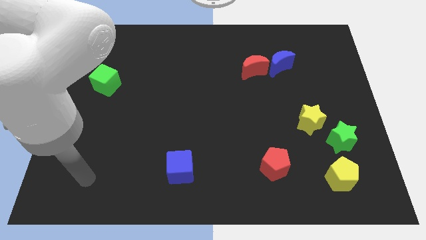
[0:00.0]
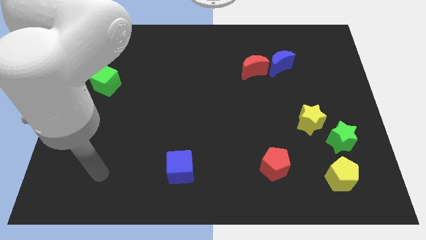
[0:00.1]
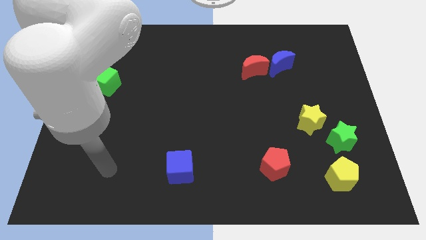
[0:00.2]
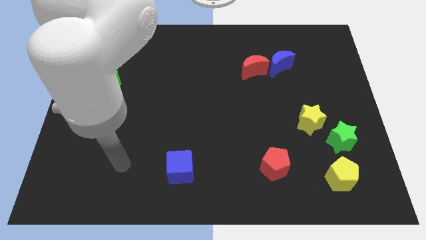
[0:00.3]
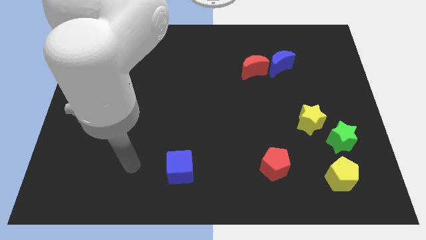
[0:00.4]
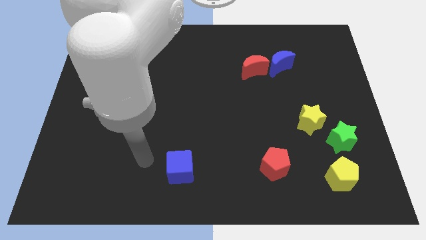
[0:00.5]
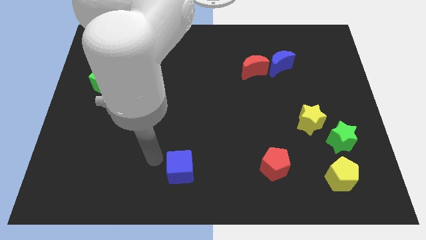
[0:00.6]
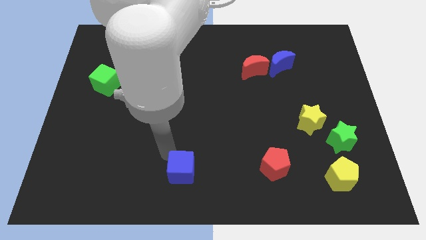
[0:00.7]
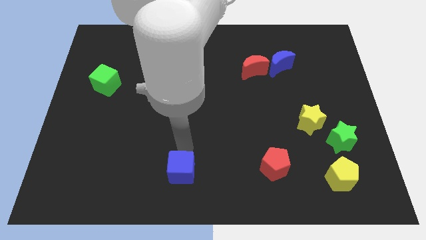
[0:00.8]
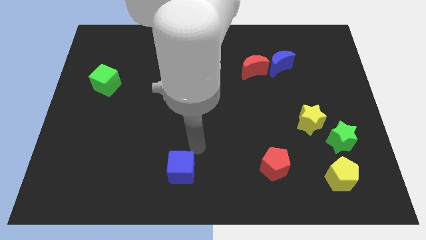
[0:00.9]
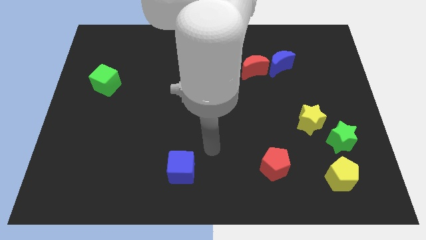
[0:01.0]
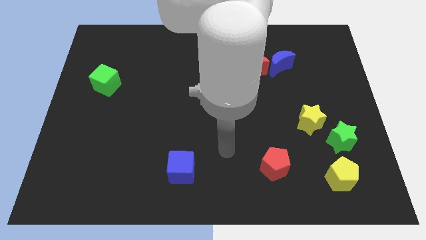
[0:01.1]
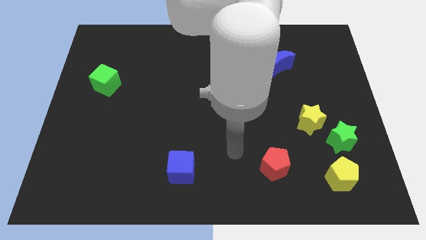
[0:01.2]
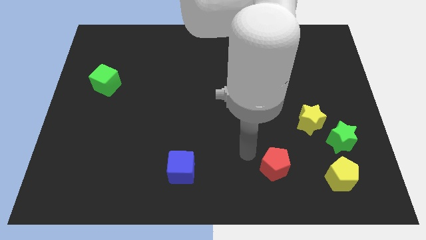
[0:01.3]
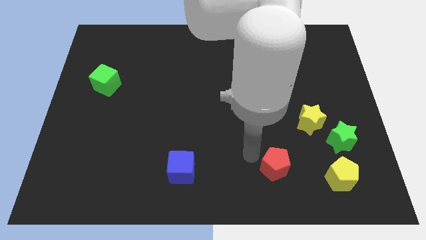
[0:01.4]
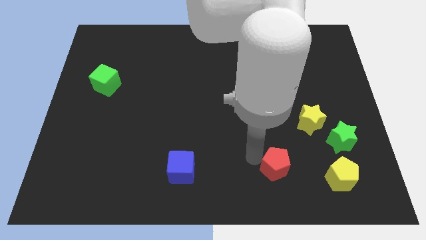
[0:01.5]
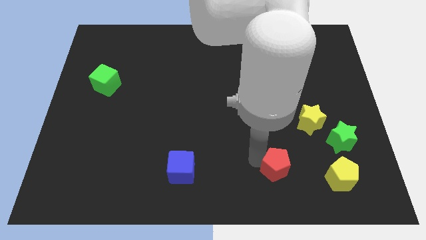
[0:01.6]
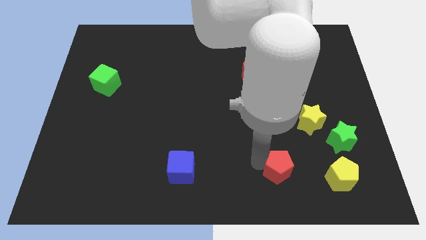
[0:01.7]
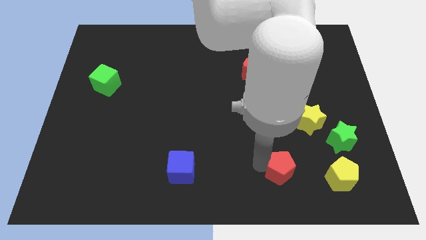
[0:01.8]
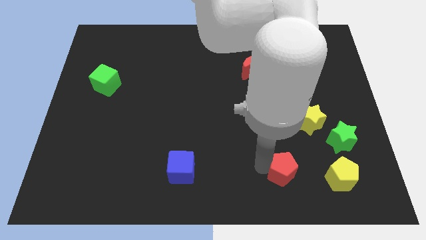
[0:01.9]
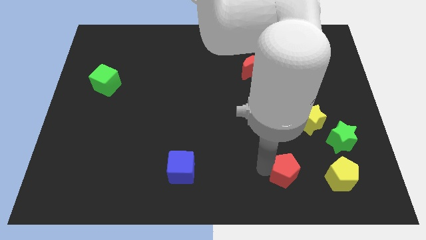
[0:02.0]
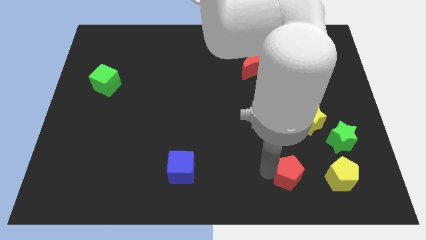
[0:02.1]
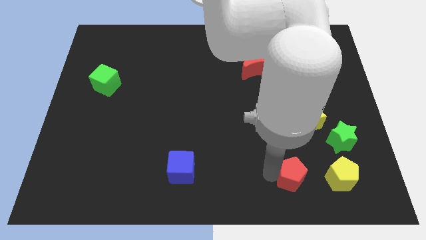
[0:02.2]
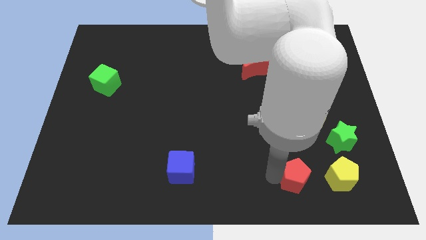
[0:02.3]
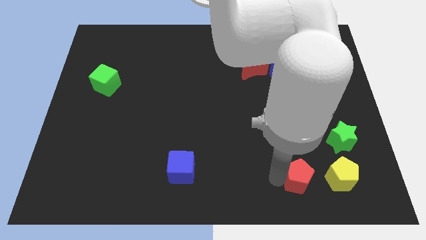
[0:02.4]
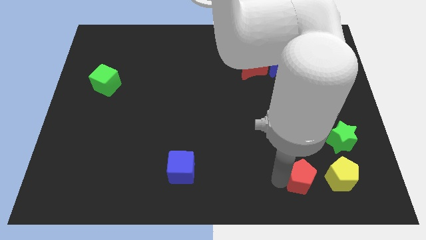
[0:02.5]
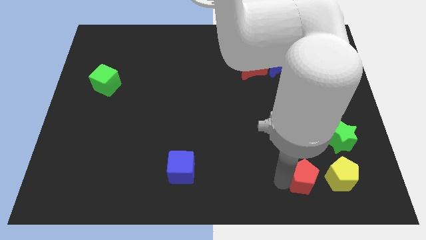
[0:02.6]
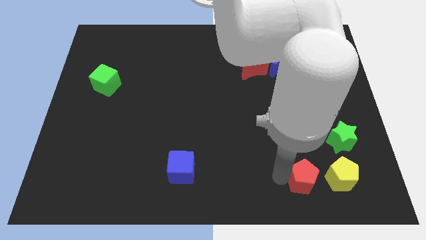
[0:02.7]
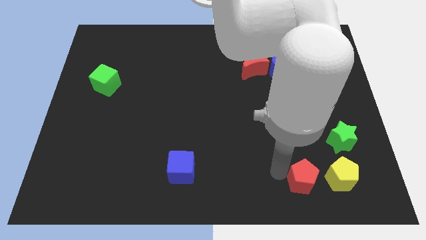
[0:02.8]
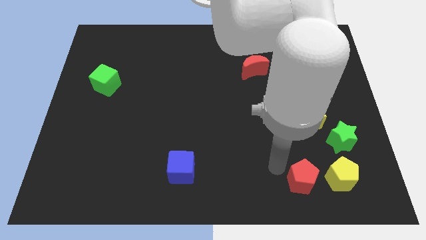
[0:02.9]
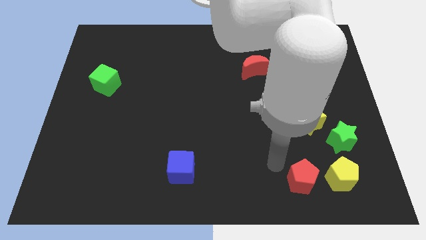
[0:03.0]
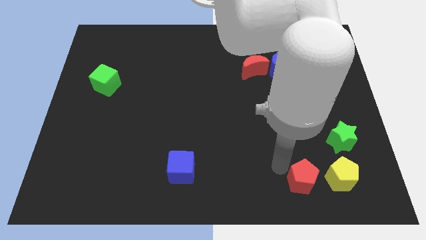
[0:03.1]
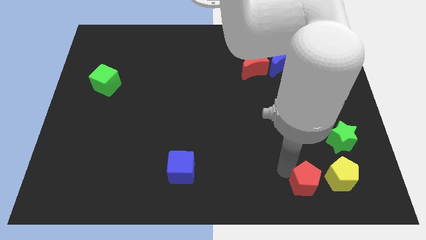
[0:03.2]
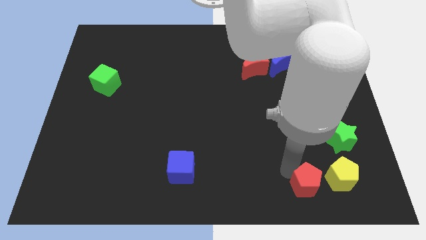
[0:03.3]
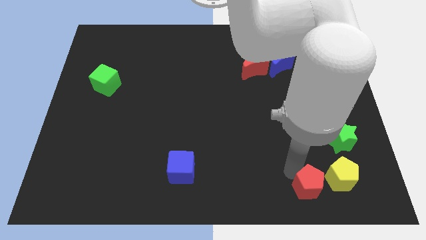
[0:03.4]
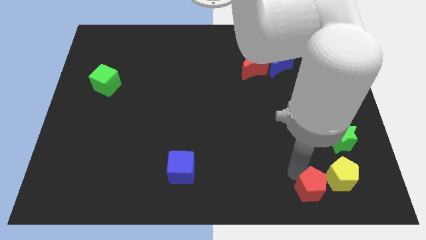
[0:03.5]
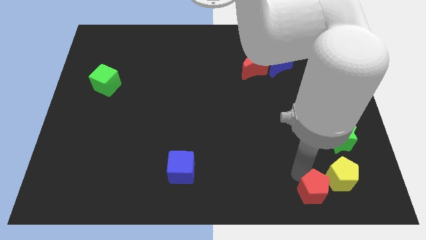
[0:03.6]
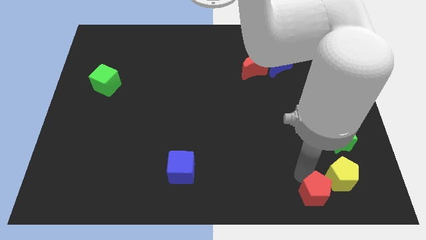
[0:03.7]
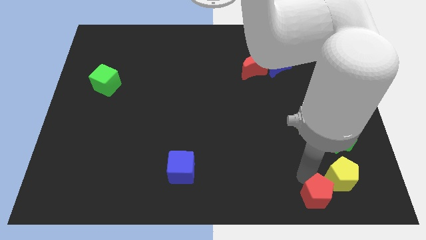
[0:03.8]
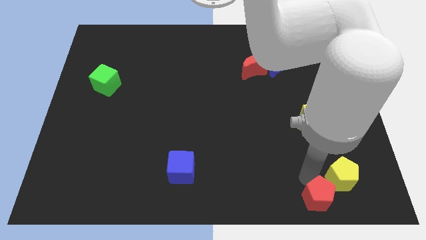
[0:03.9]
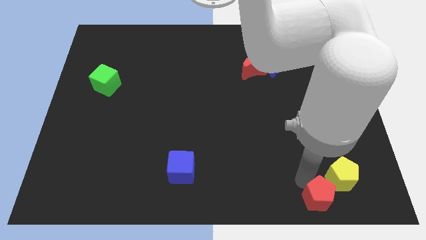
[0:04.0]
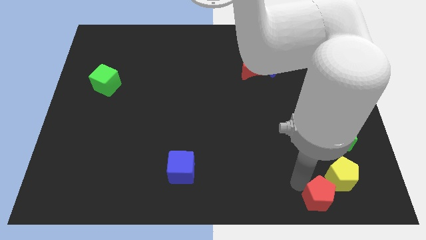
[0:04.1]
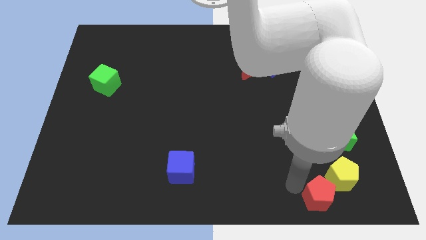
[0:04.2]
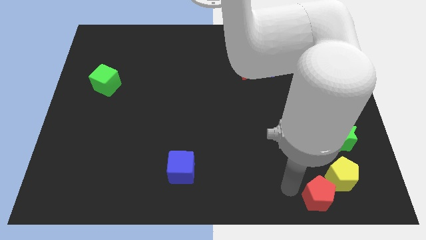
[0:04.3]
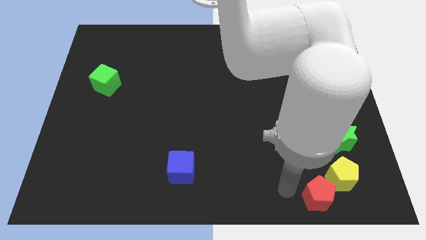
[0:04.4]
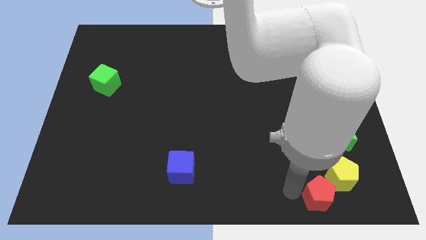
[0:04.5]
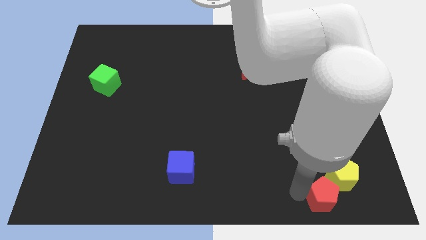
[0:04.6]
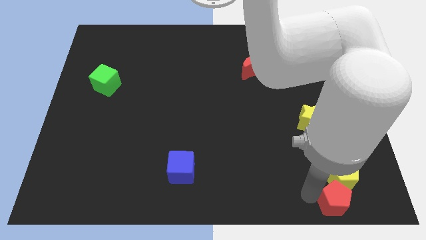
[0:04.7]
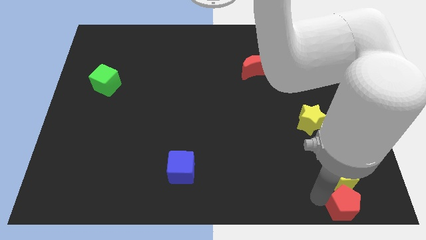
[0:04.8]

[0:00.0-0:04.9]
move the red pentagon to the bottom right corner

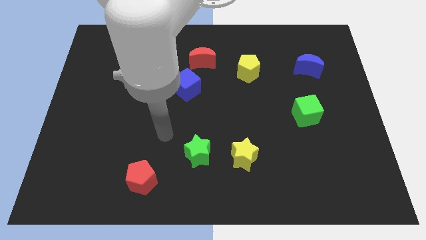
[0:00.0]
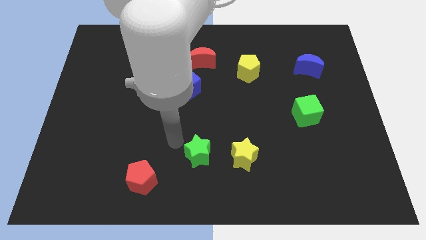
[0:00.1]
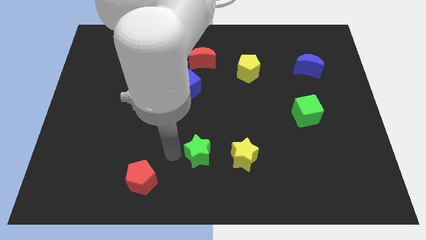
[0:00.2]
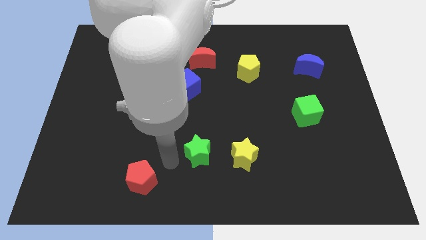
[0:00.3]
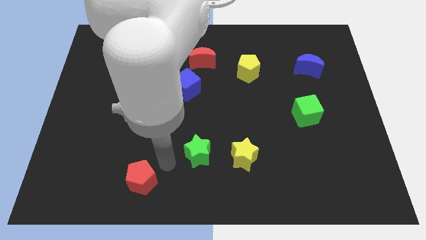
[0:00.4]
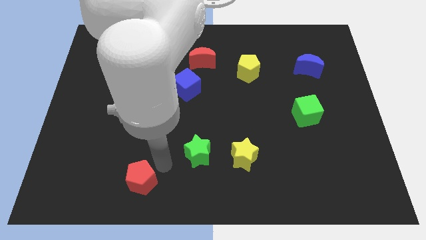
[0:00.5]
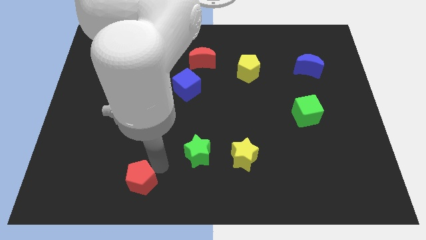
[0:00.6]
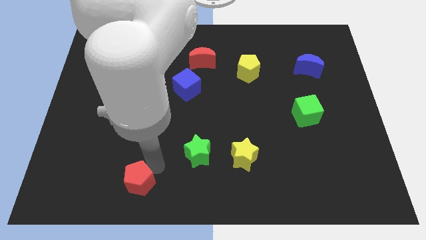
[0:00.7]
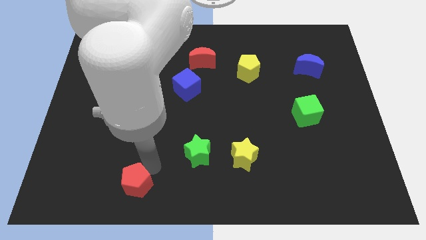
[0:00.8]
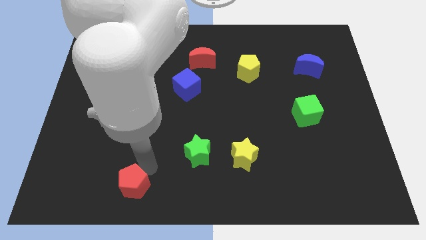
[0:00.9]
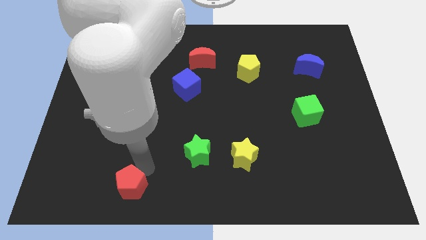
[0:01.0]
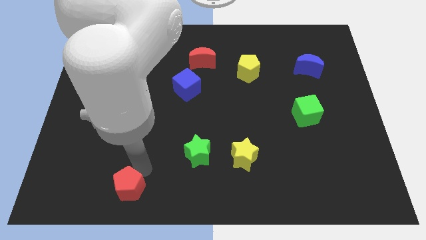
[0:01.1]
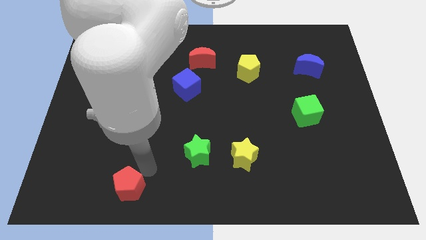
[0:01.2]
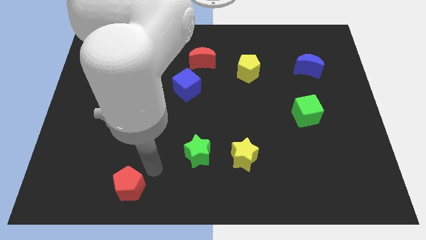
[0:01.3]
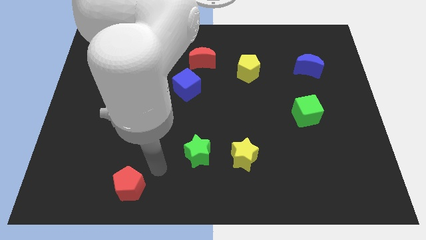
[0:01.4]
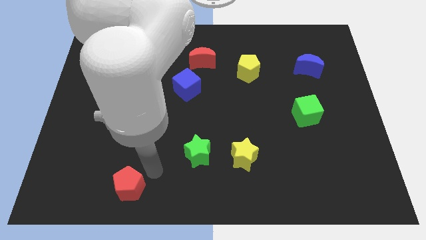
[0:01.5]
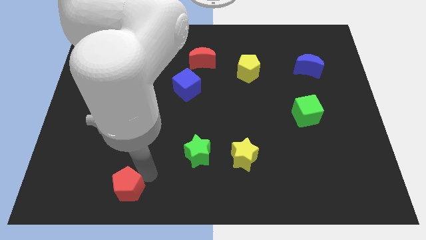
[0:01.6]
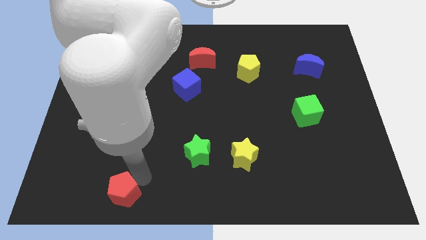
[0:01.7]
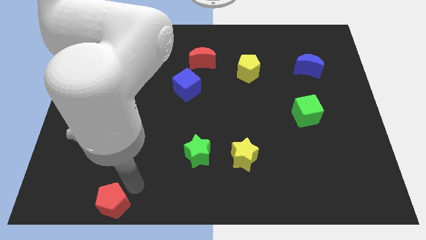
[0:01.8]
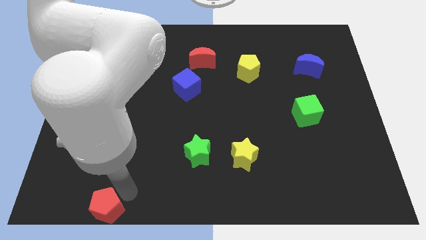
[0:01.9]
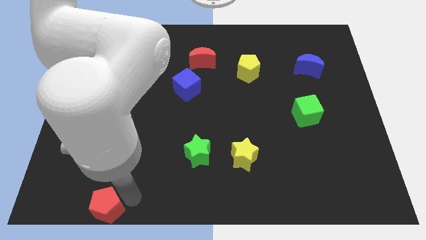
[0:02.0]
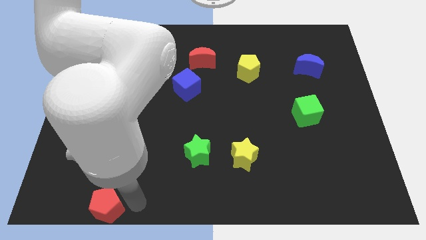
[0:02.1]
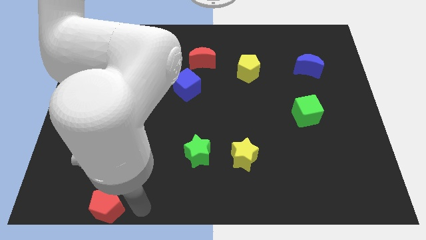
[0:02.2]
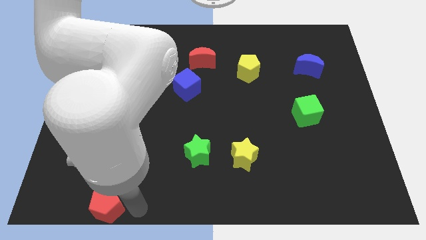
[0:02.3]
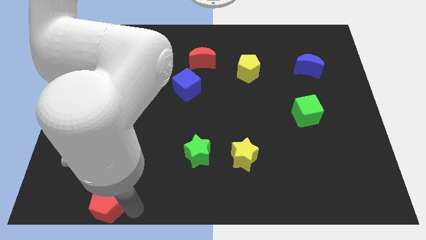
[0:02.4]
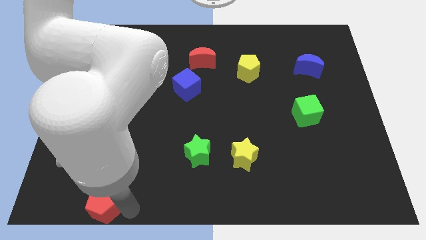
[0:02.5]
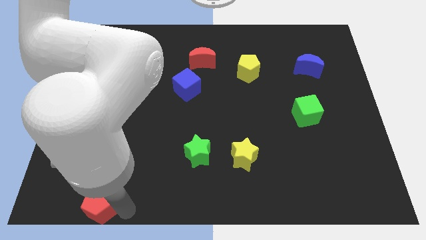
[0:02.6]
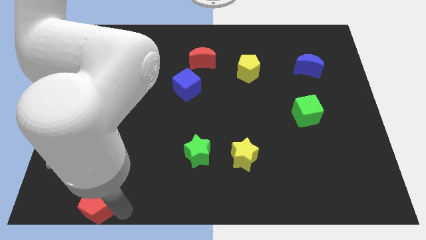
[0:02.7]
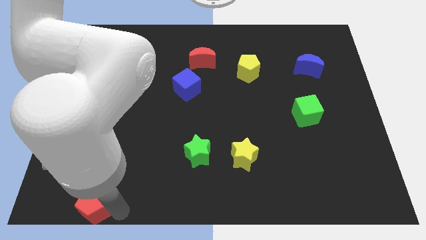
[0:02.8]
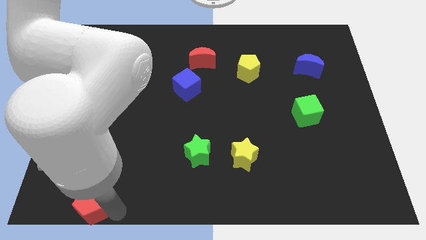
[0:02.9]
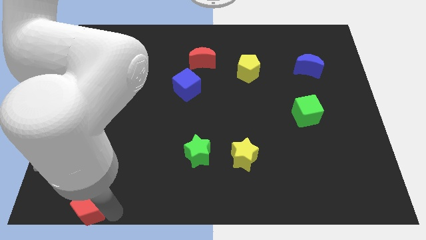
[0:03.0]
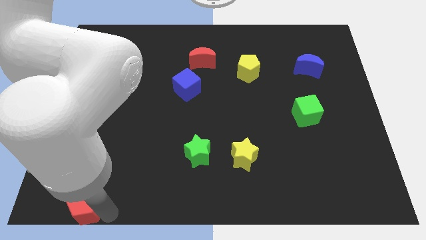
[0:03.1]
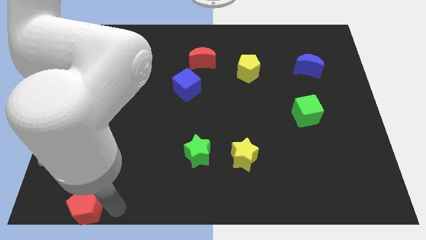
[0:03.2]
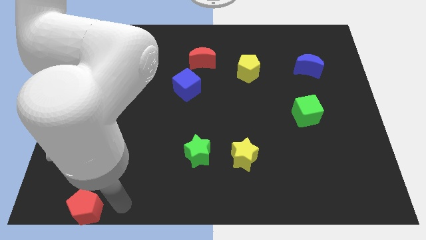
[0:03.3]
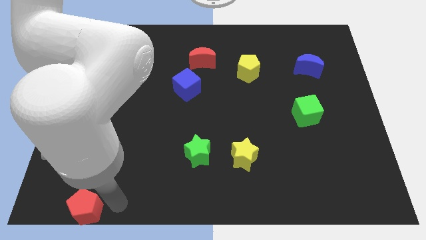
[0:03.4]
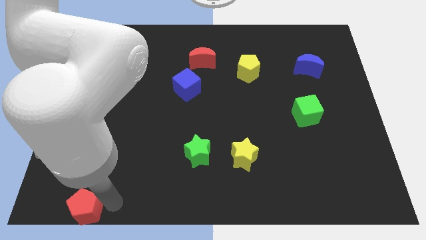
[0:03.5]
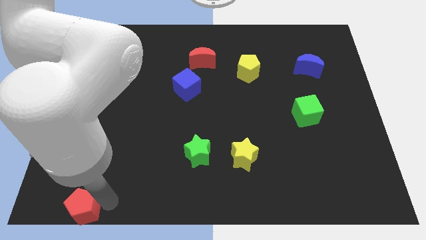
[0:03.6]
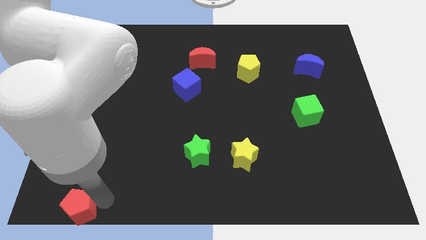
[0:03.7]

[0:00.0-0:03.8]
move the red pentagon to the bottom left corner
